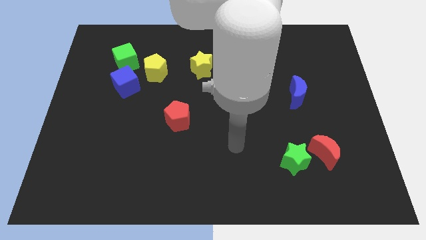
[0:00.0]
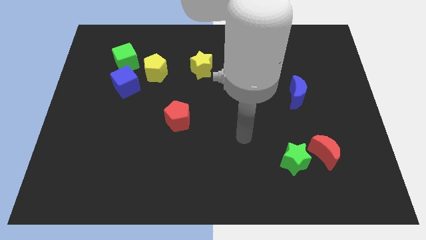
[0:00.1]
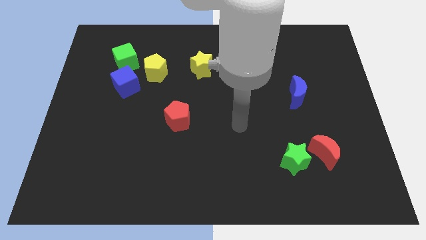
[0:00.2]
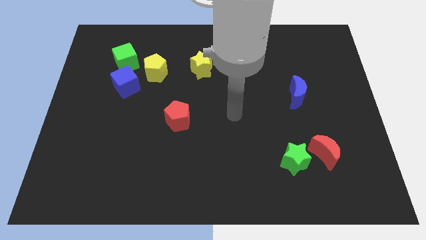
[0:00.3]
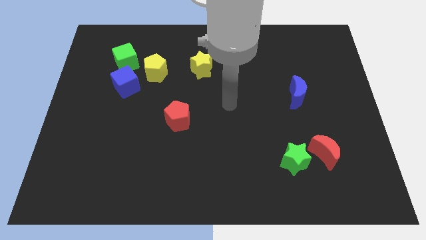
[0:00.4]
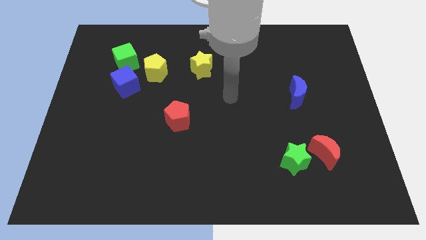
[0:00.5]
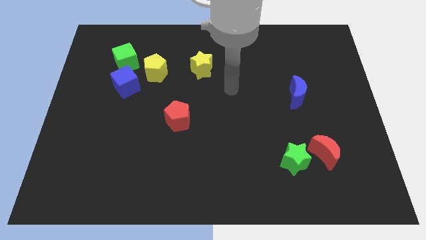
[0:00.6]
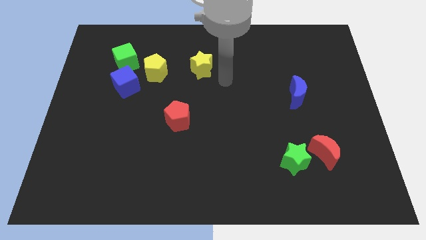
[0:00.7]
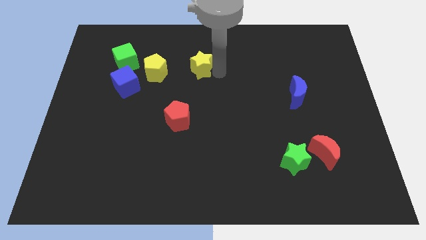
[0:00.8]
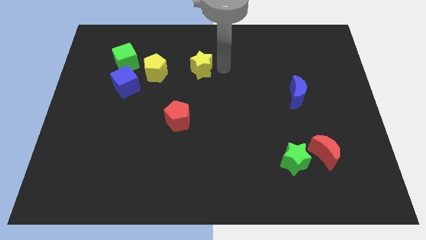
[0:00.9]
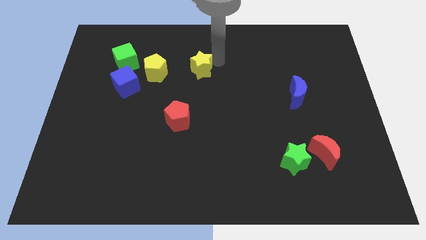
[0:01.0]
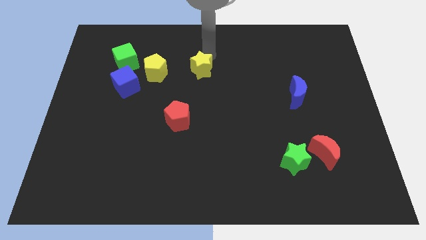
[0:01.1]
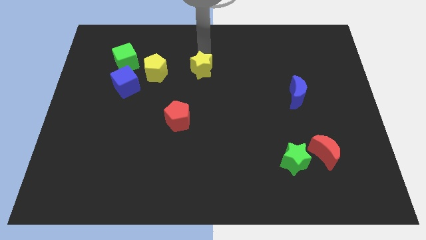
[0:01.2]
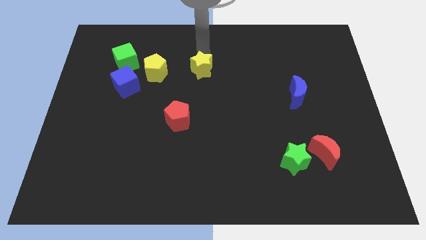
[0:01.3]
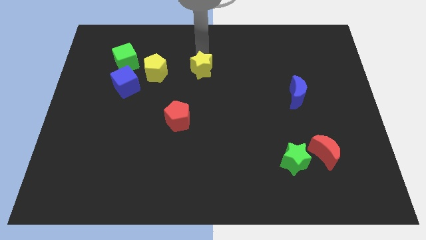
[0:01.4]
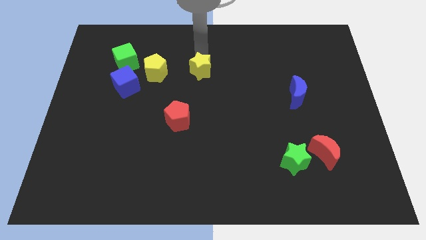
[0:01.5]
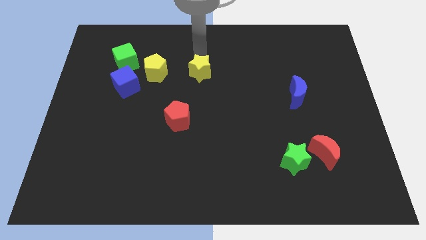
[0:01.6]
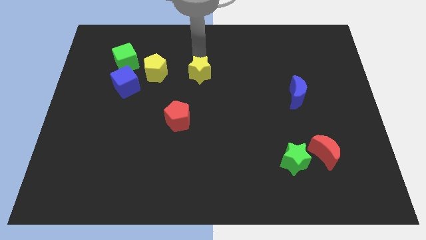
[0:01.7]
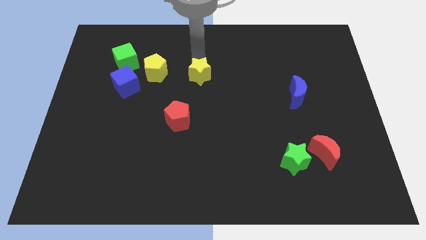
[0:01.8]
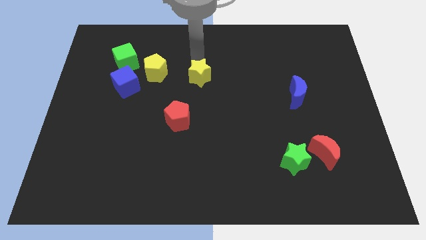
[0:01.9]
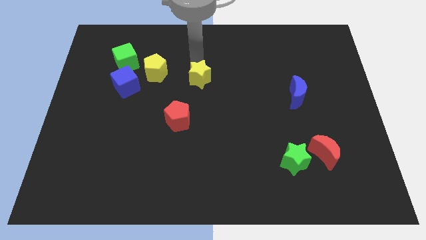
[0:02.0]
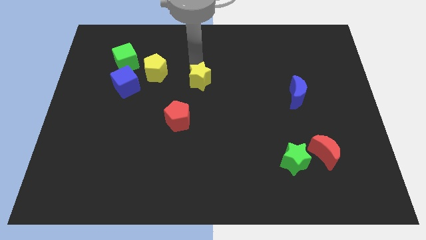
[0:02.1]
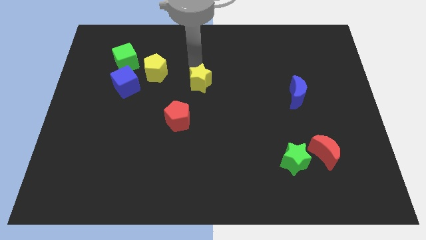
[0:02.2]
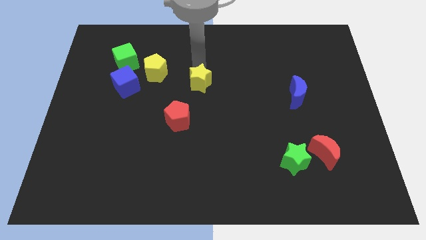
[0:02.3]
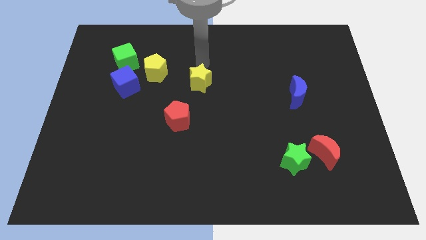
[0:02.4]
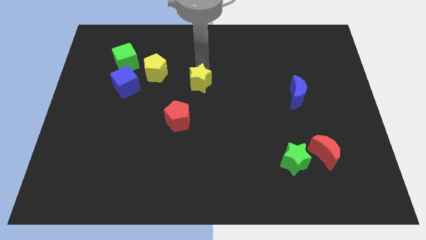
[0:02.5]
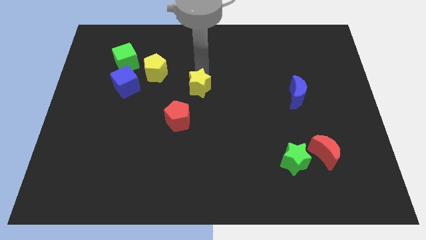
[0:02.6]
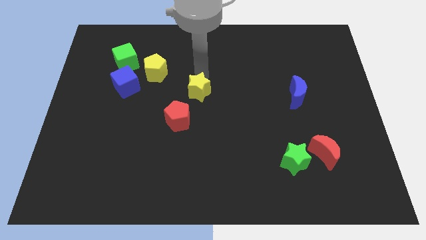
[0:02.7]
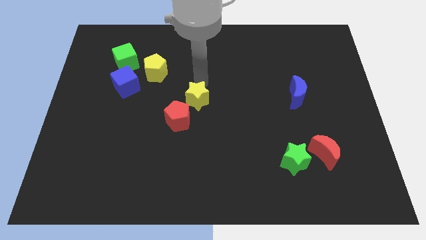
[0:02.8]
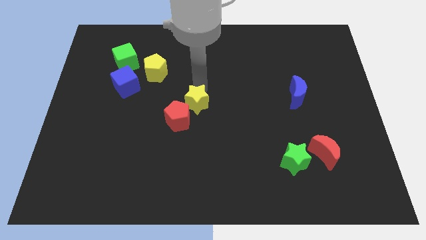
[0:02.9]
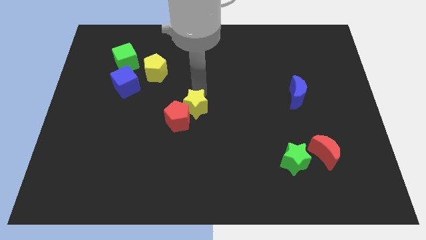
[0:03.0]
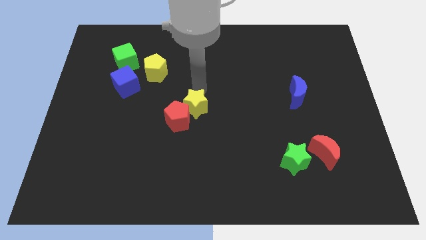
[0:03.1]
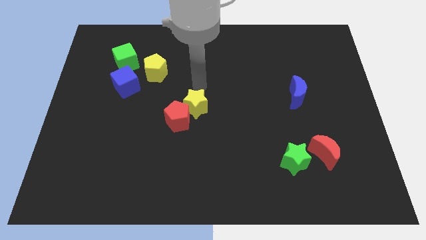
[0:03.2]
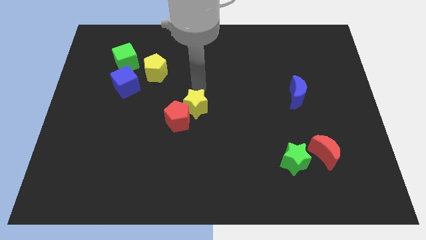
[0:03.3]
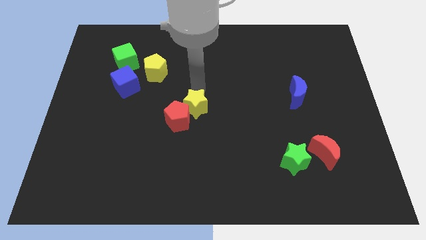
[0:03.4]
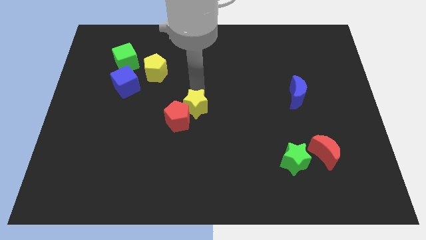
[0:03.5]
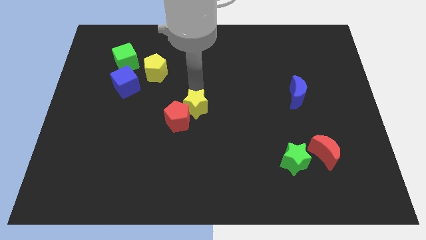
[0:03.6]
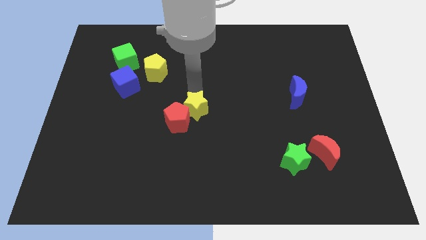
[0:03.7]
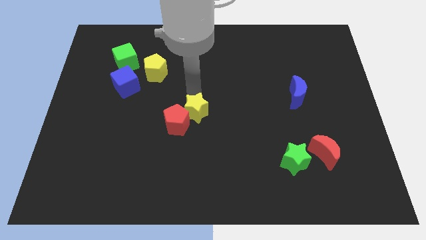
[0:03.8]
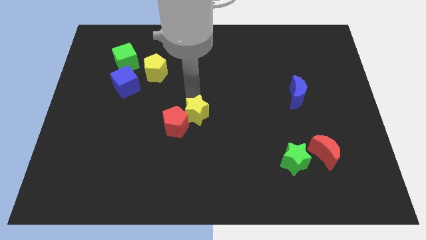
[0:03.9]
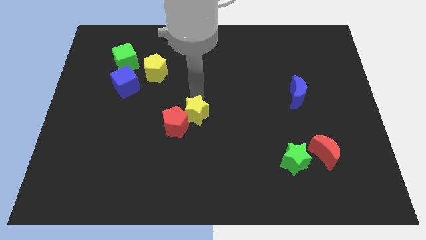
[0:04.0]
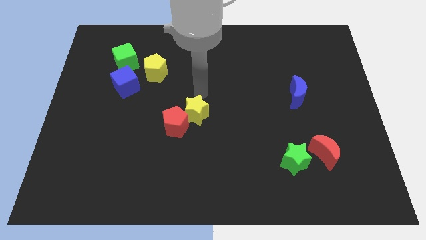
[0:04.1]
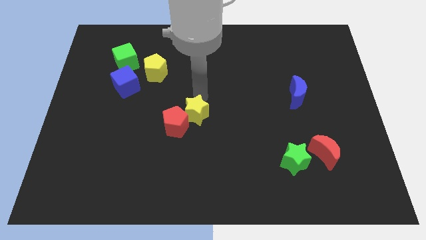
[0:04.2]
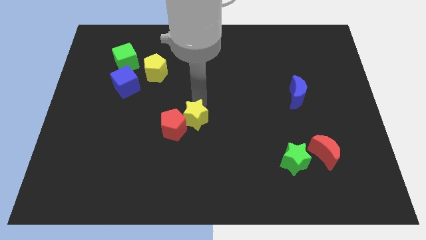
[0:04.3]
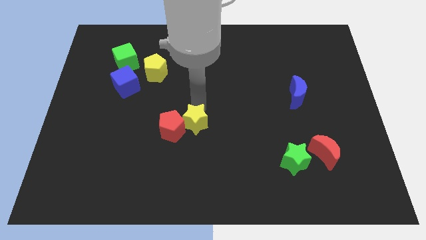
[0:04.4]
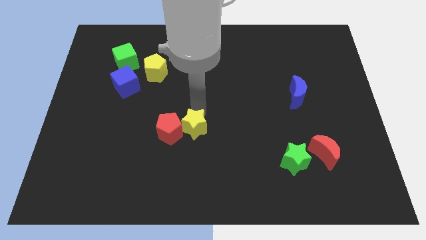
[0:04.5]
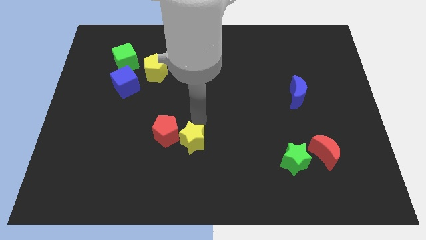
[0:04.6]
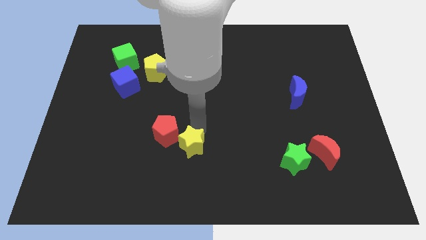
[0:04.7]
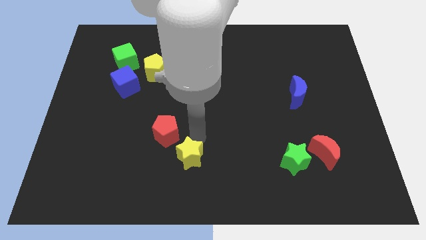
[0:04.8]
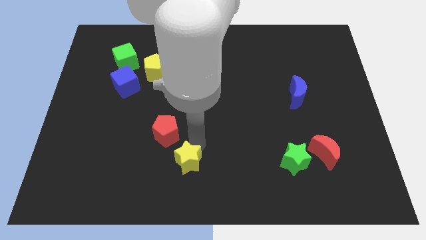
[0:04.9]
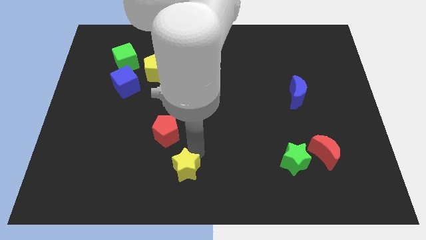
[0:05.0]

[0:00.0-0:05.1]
move the yellow star to the bottom of the red pentagon

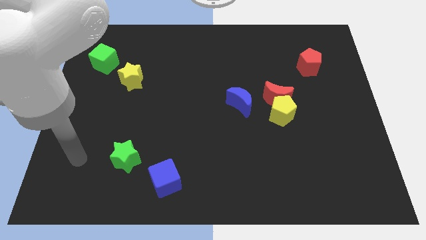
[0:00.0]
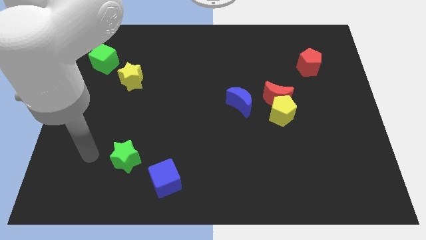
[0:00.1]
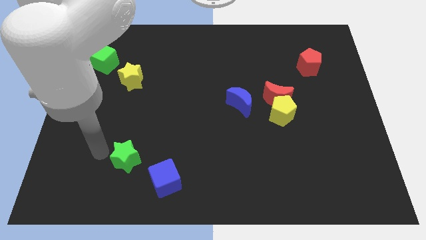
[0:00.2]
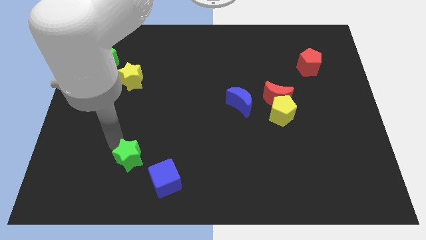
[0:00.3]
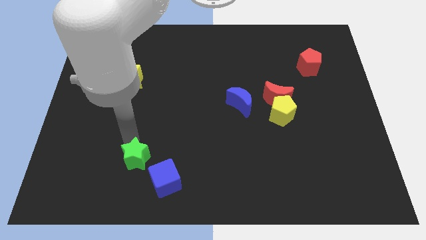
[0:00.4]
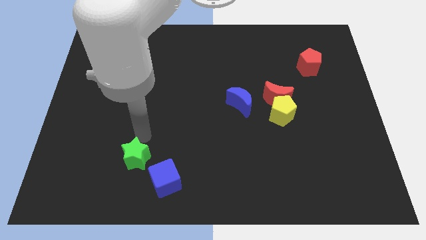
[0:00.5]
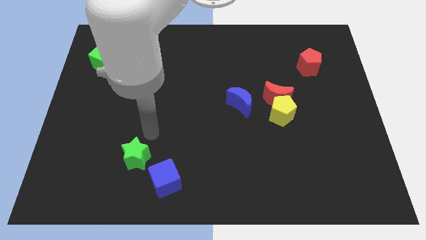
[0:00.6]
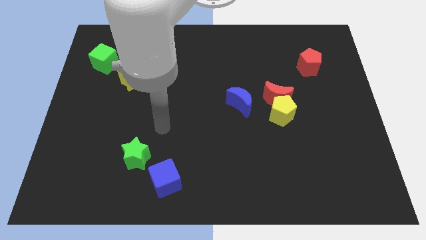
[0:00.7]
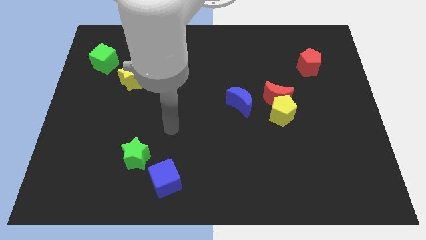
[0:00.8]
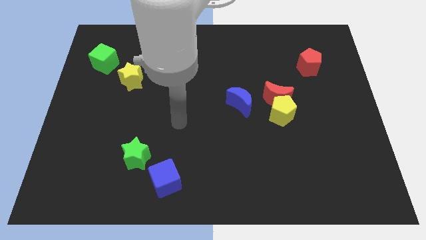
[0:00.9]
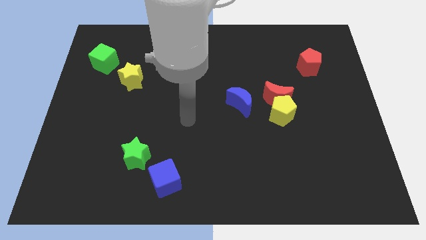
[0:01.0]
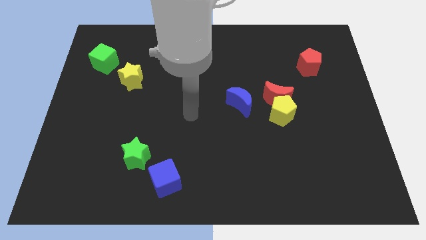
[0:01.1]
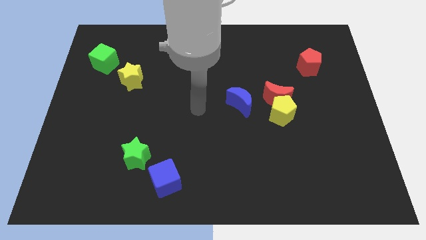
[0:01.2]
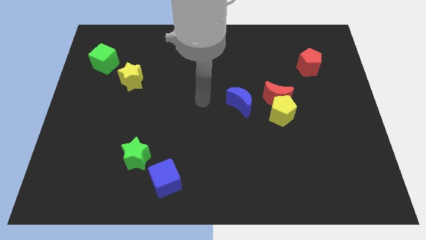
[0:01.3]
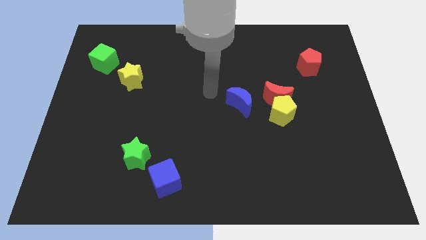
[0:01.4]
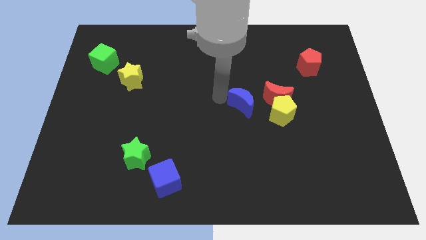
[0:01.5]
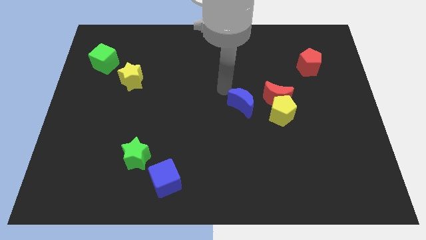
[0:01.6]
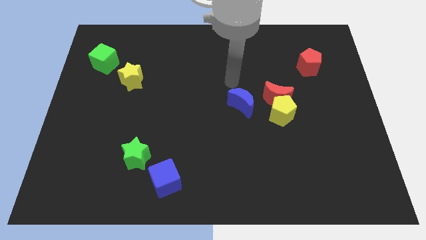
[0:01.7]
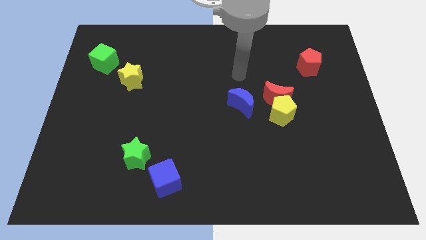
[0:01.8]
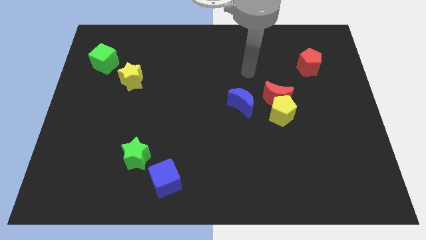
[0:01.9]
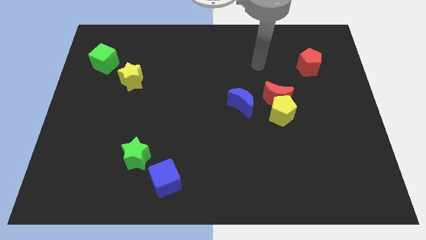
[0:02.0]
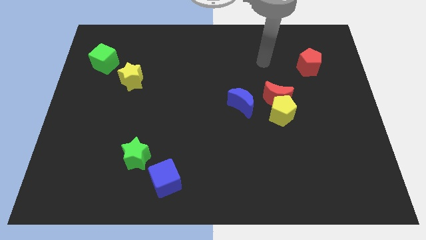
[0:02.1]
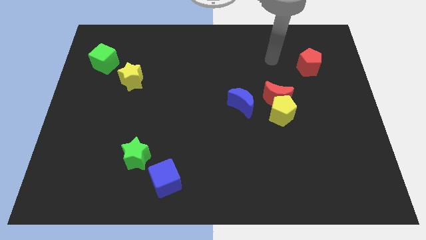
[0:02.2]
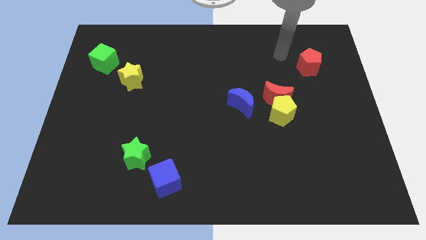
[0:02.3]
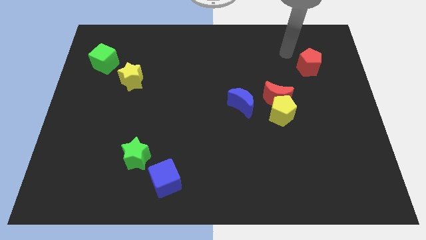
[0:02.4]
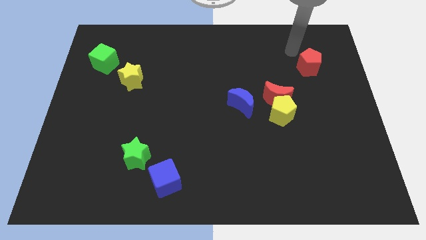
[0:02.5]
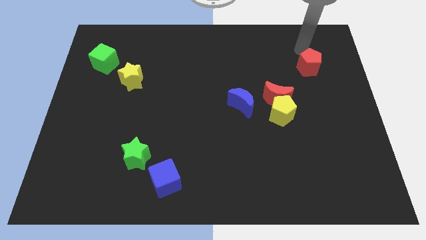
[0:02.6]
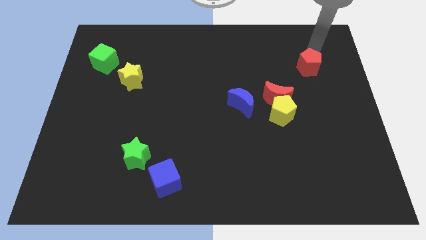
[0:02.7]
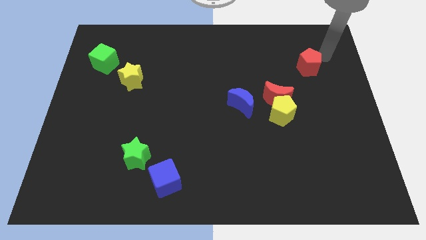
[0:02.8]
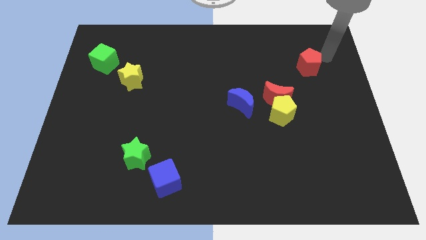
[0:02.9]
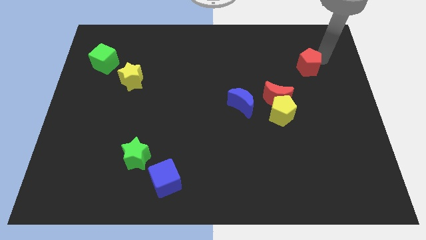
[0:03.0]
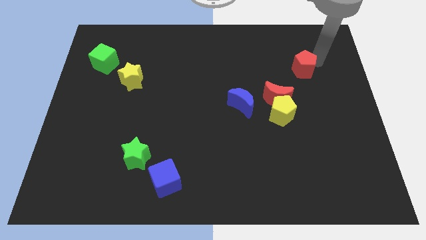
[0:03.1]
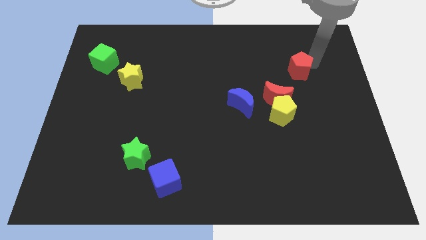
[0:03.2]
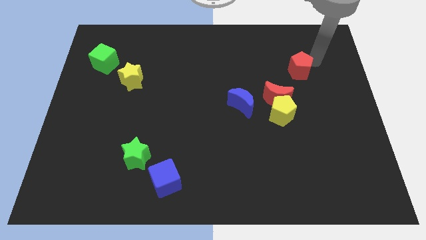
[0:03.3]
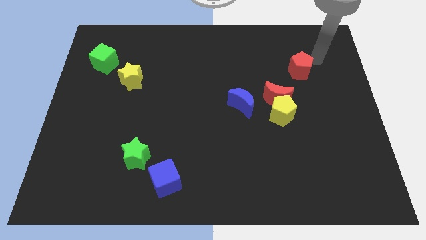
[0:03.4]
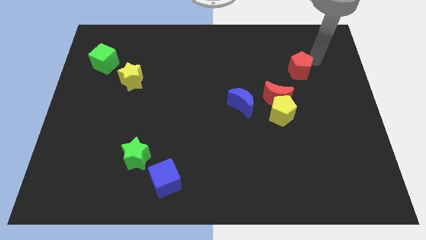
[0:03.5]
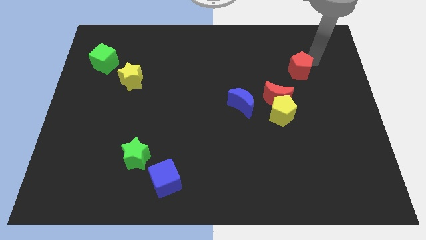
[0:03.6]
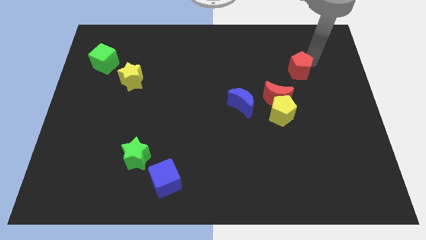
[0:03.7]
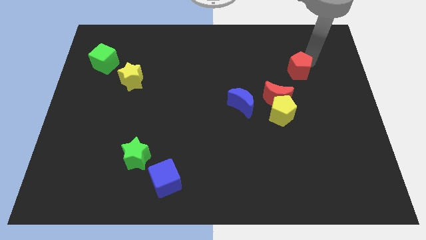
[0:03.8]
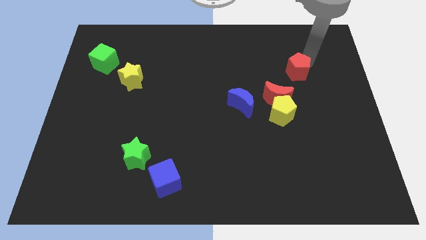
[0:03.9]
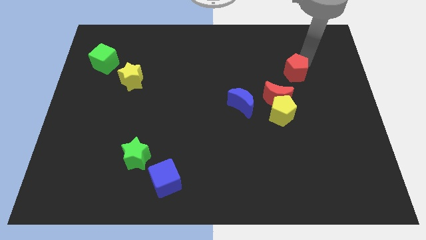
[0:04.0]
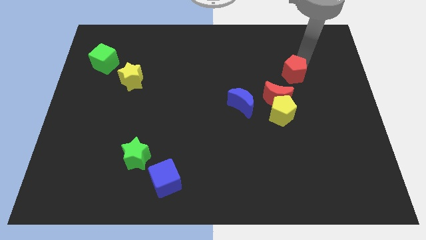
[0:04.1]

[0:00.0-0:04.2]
push the red pentagon above the yellow pentagon
